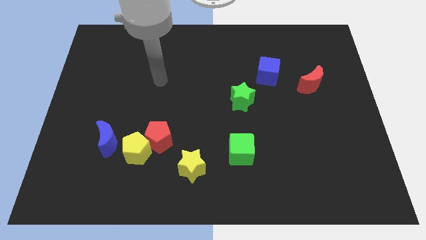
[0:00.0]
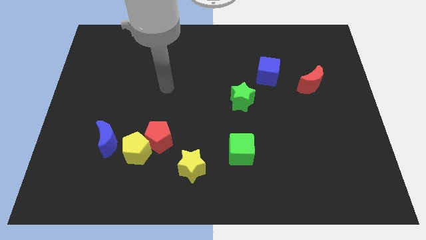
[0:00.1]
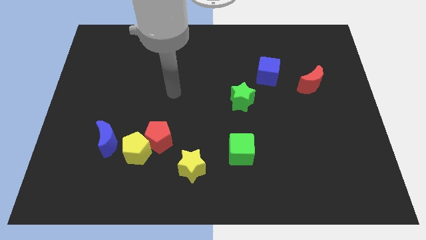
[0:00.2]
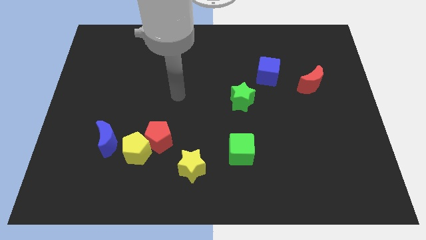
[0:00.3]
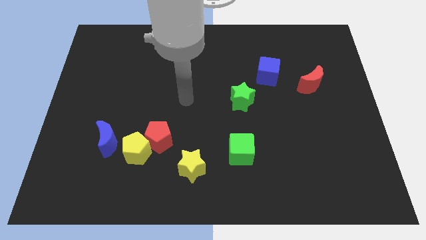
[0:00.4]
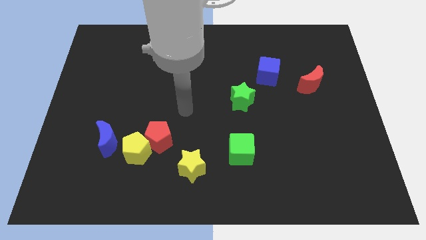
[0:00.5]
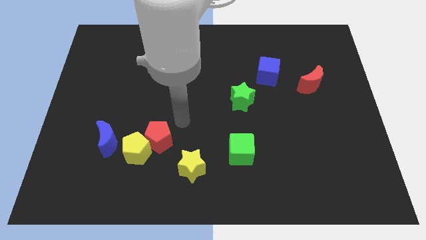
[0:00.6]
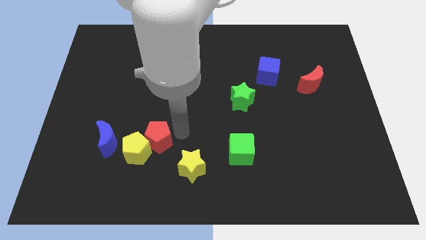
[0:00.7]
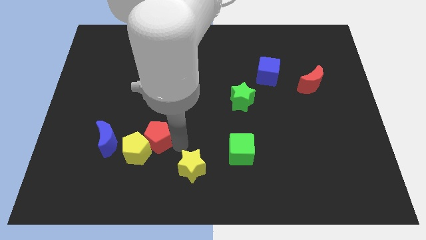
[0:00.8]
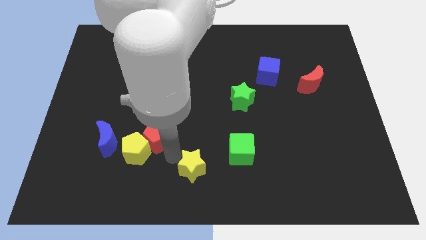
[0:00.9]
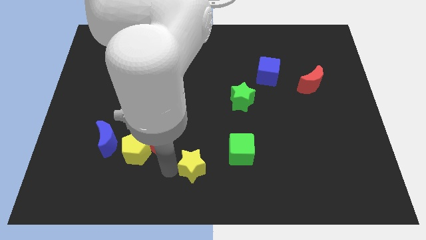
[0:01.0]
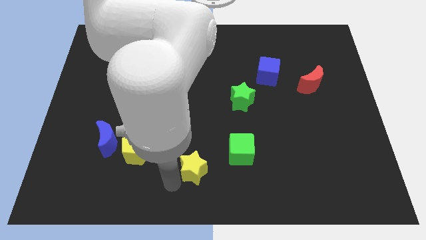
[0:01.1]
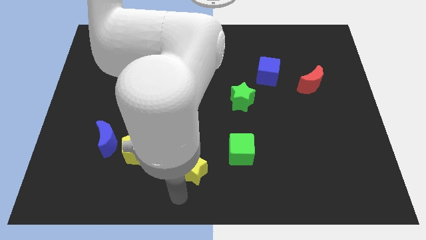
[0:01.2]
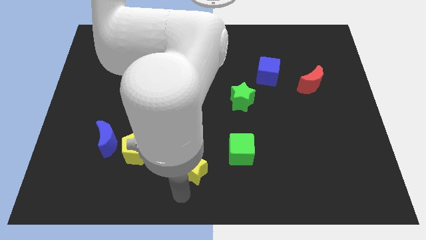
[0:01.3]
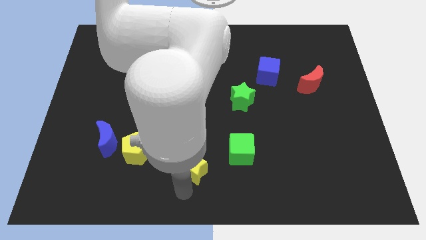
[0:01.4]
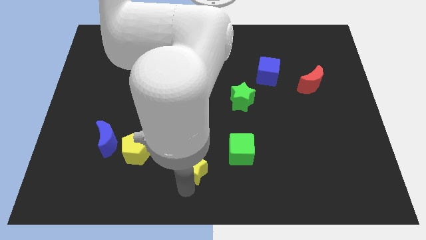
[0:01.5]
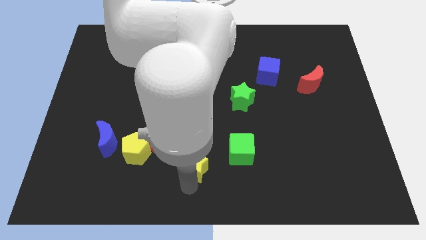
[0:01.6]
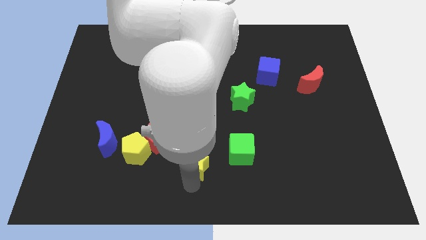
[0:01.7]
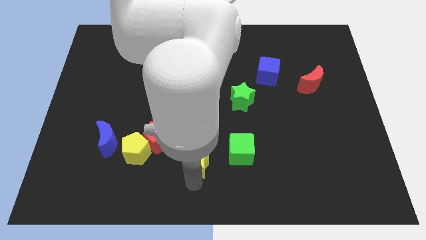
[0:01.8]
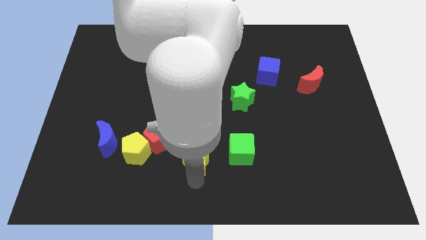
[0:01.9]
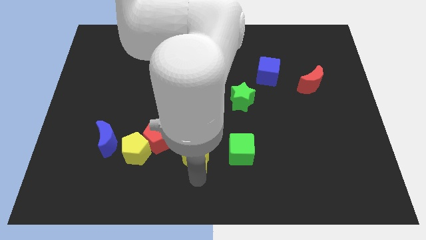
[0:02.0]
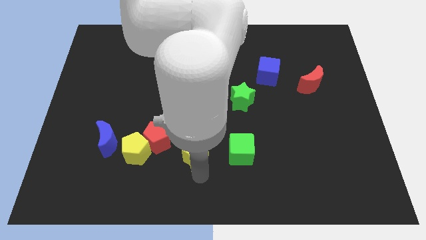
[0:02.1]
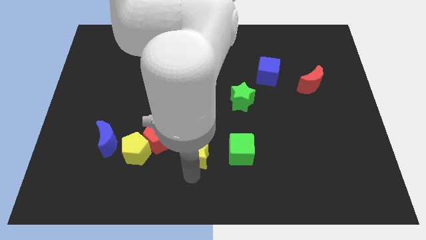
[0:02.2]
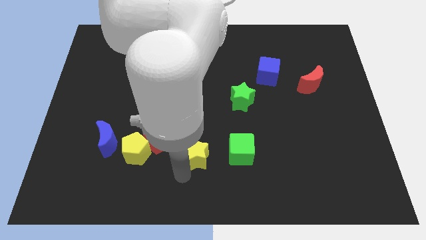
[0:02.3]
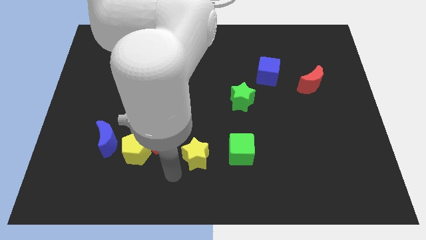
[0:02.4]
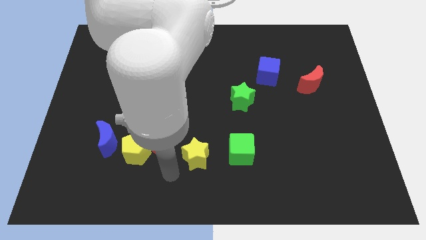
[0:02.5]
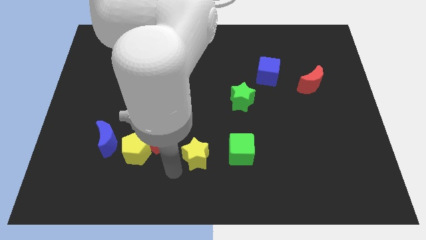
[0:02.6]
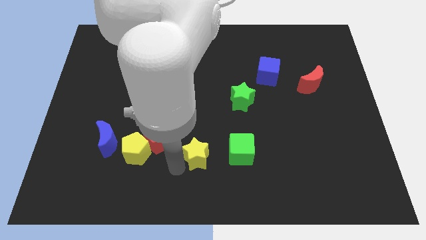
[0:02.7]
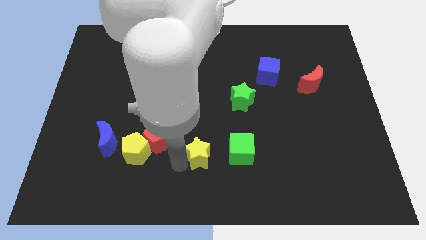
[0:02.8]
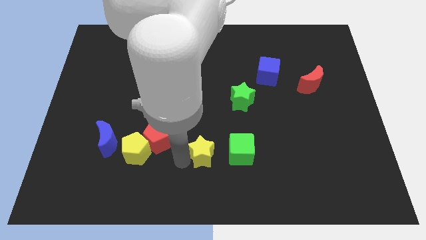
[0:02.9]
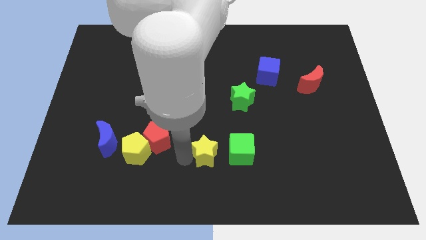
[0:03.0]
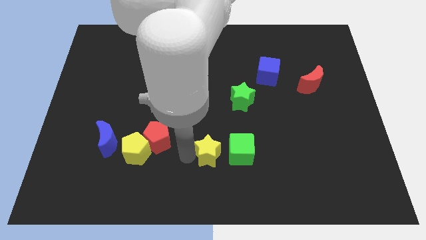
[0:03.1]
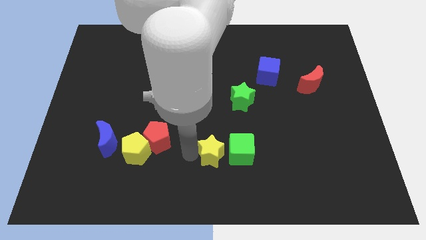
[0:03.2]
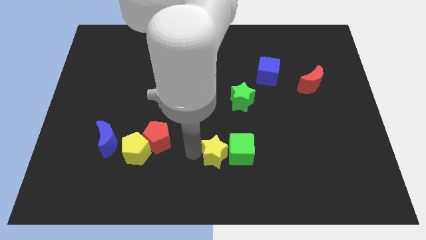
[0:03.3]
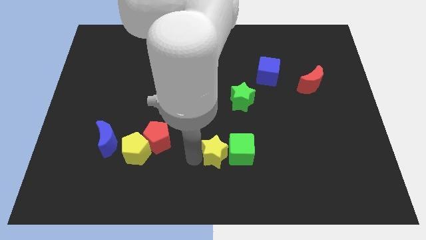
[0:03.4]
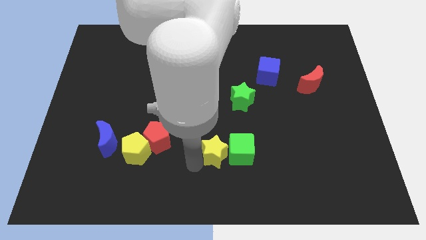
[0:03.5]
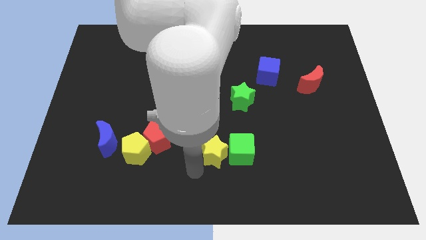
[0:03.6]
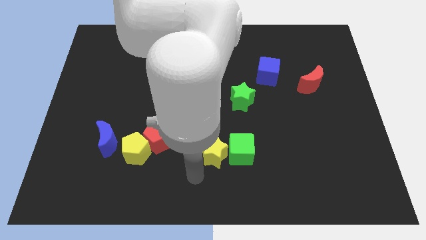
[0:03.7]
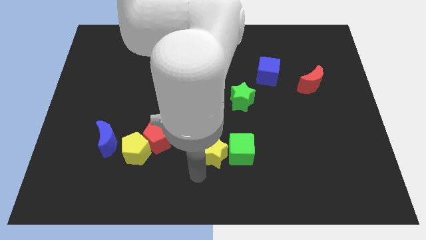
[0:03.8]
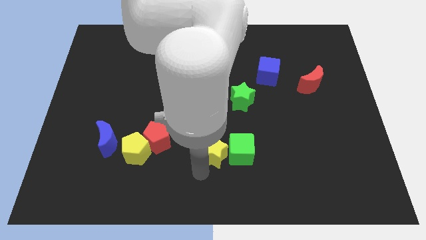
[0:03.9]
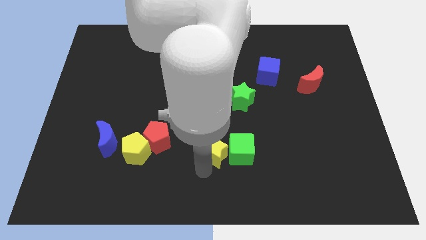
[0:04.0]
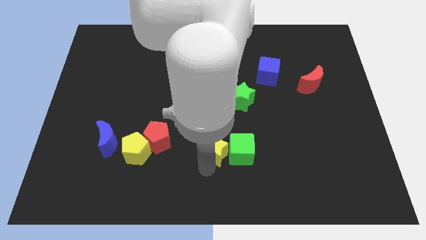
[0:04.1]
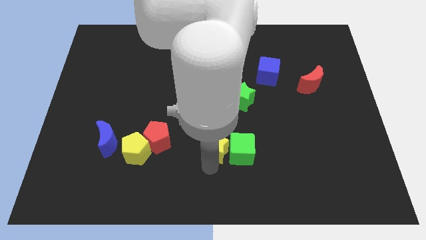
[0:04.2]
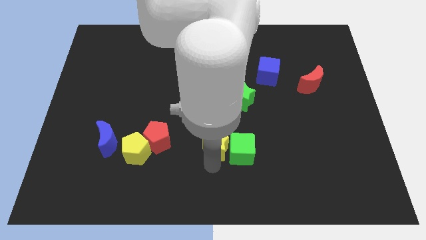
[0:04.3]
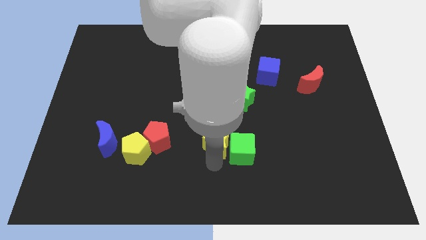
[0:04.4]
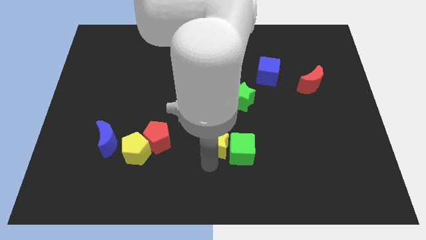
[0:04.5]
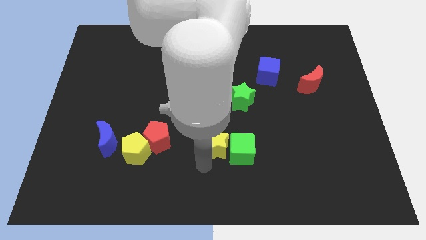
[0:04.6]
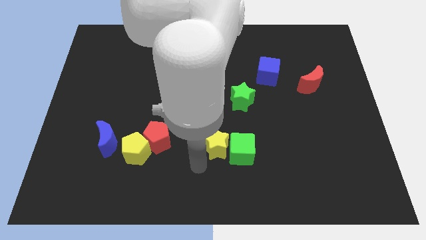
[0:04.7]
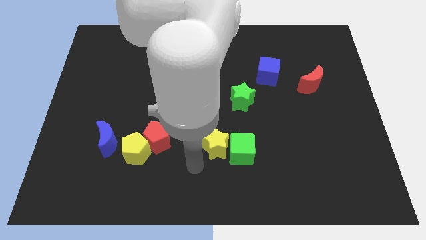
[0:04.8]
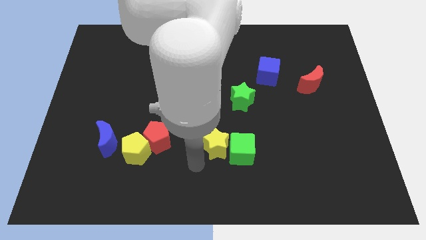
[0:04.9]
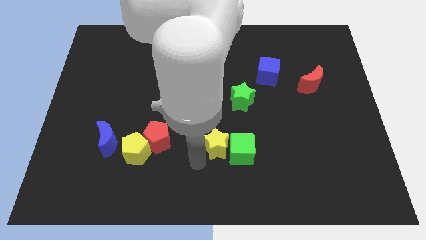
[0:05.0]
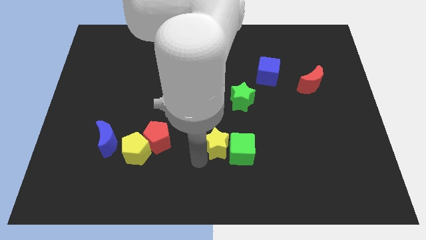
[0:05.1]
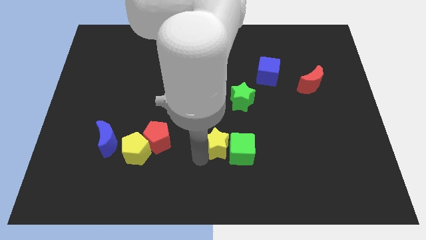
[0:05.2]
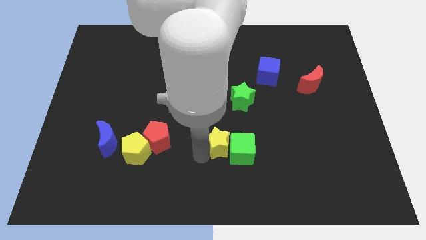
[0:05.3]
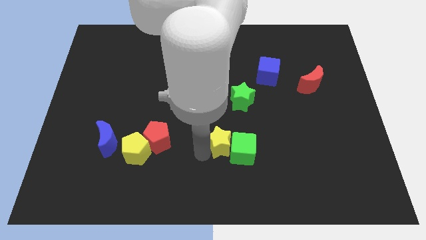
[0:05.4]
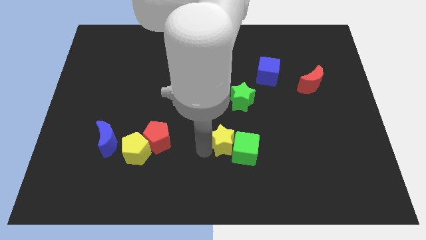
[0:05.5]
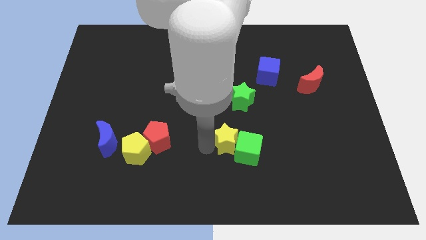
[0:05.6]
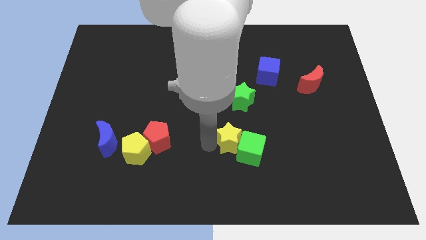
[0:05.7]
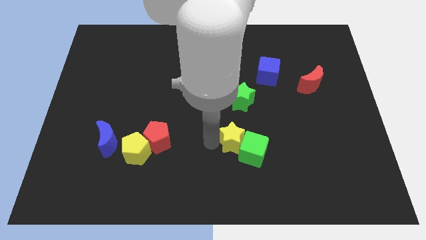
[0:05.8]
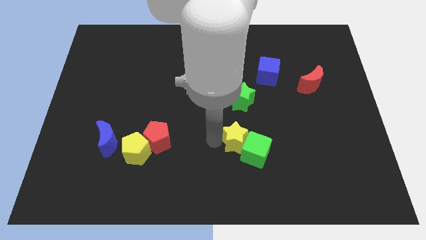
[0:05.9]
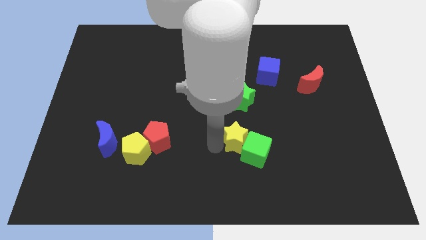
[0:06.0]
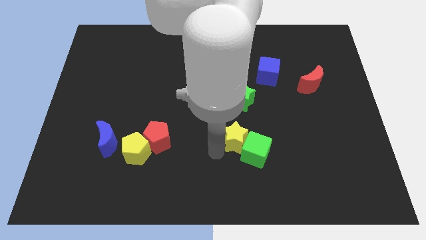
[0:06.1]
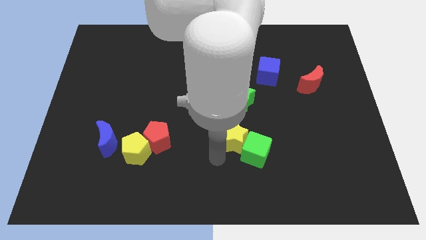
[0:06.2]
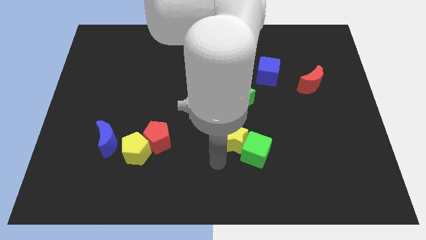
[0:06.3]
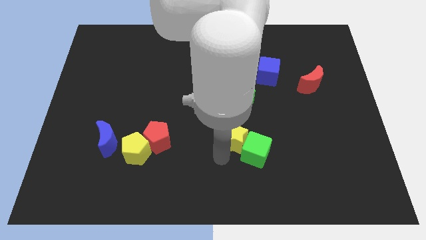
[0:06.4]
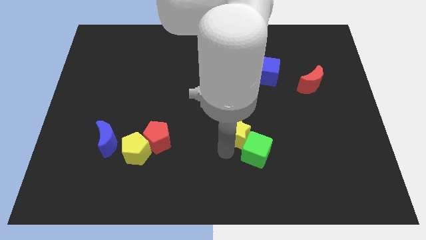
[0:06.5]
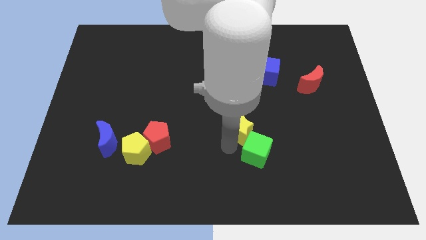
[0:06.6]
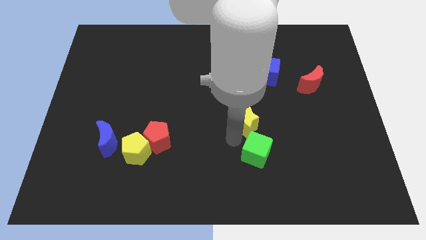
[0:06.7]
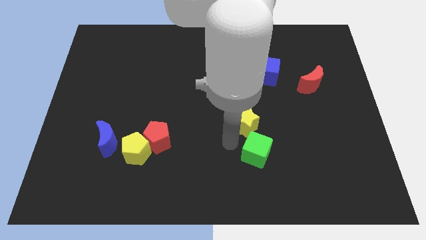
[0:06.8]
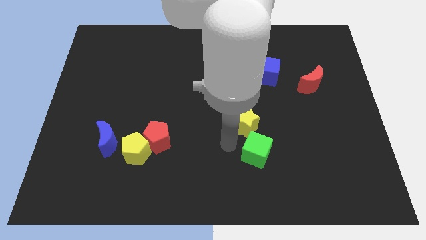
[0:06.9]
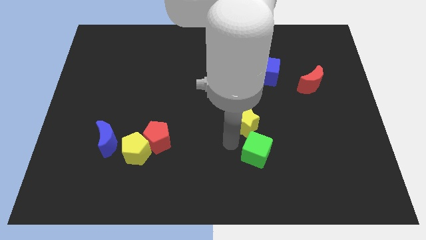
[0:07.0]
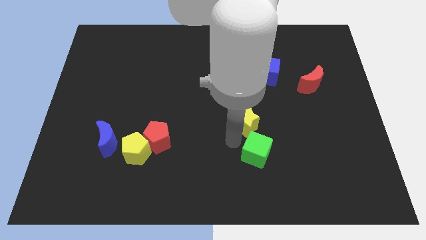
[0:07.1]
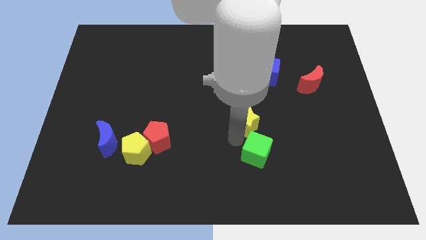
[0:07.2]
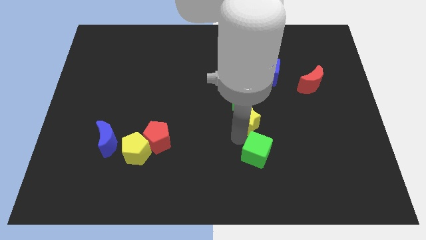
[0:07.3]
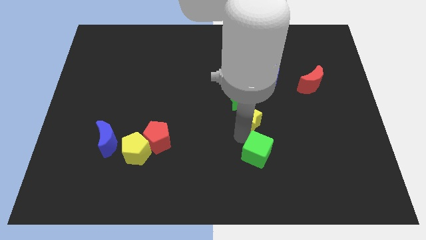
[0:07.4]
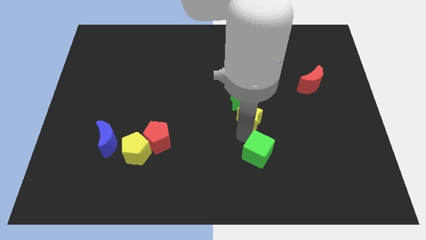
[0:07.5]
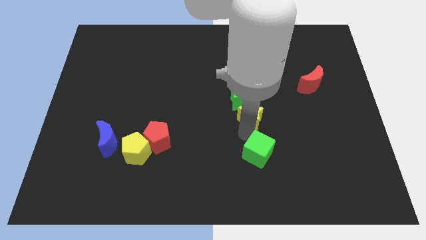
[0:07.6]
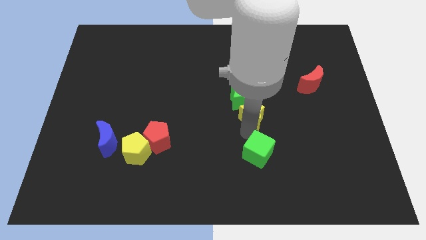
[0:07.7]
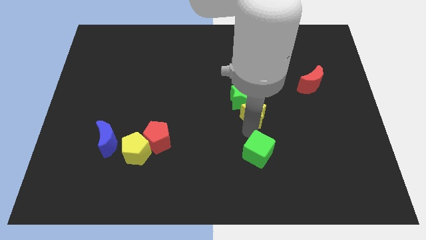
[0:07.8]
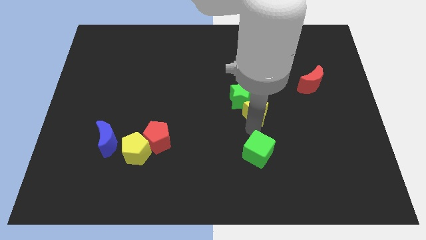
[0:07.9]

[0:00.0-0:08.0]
move the yellow star upwards and then right
